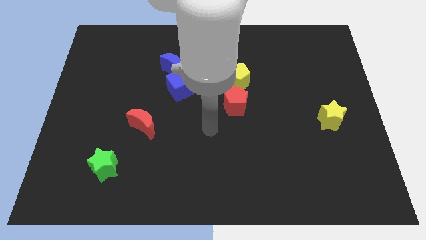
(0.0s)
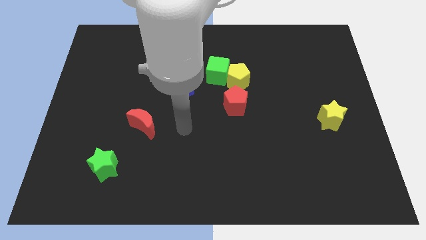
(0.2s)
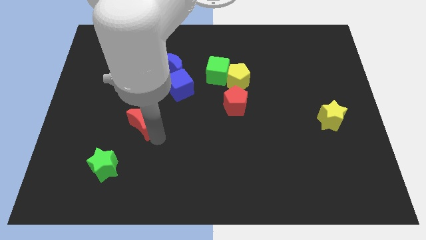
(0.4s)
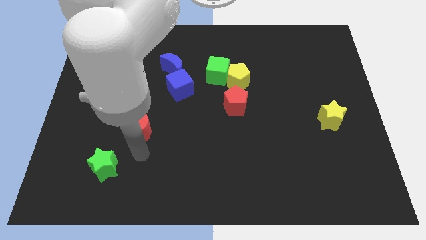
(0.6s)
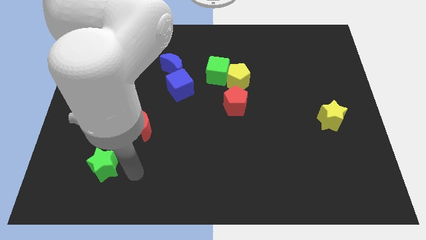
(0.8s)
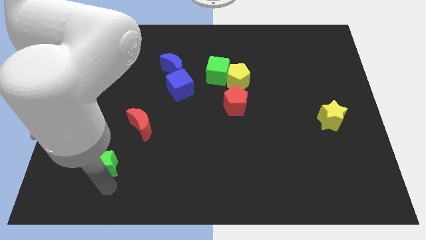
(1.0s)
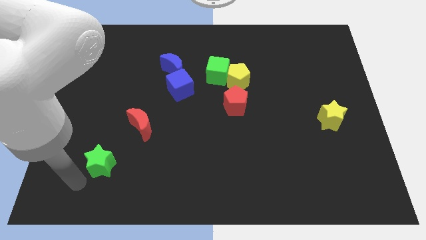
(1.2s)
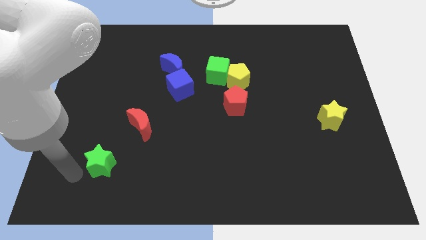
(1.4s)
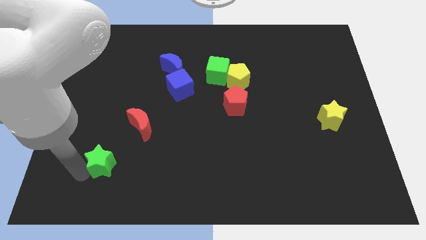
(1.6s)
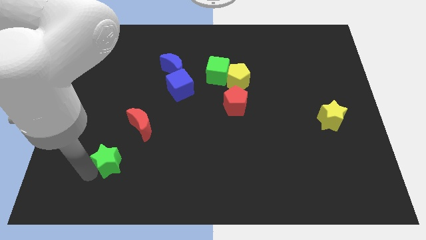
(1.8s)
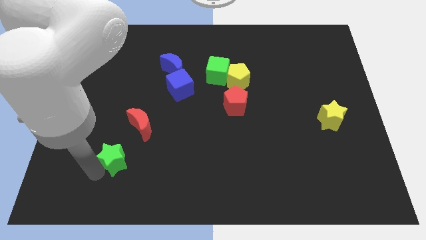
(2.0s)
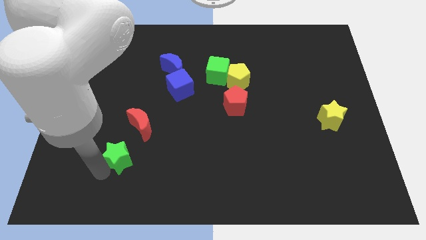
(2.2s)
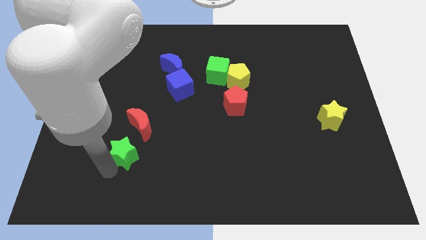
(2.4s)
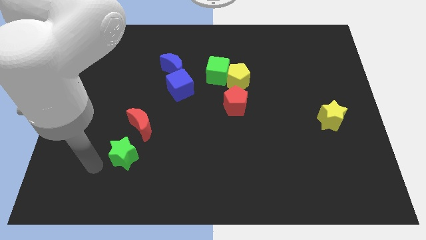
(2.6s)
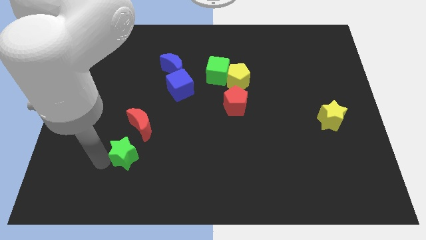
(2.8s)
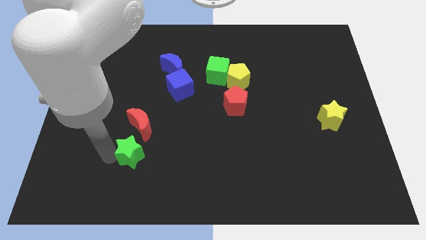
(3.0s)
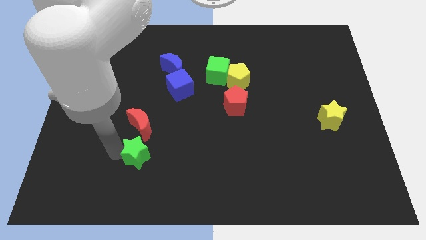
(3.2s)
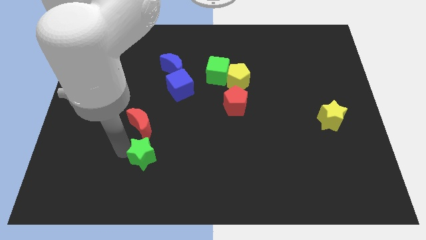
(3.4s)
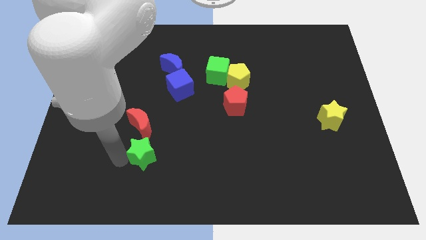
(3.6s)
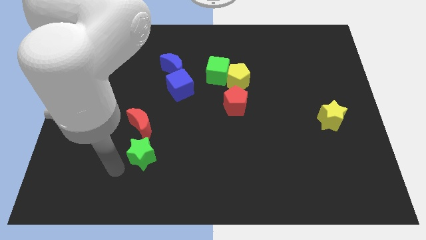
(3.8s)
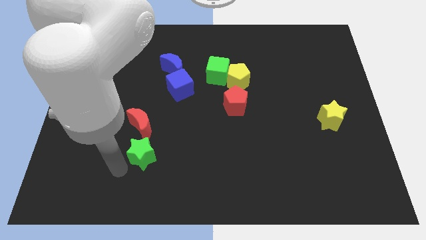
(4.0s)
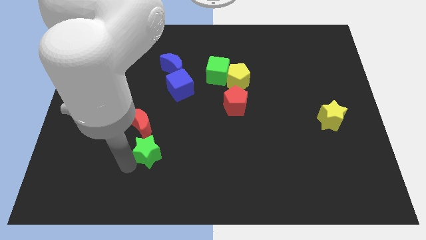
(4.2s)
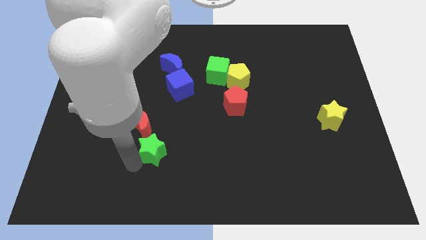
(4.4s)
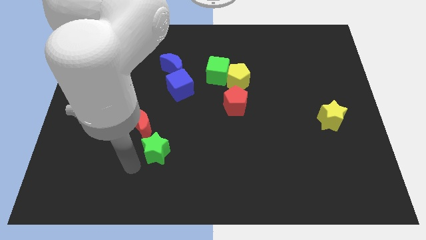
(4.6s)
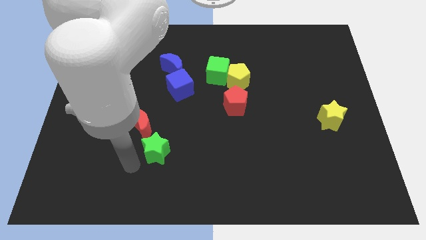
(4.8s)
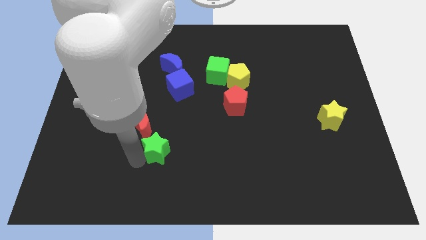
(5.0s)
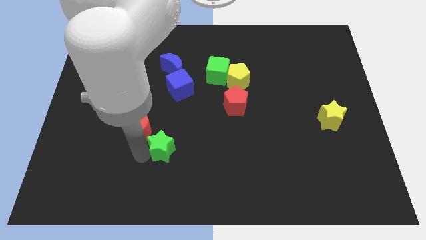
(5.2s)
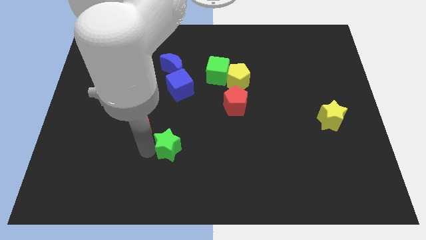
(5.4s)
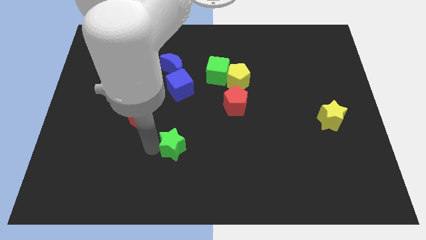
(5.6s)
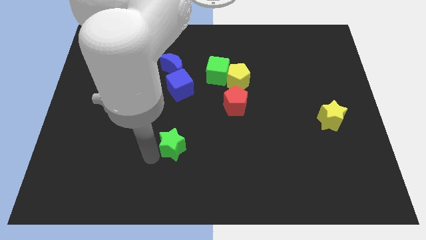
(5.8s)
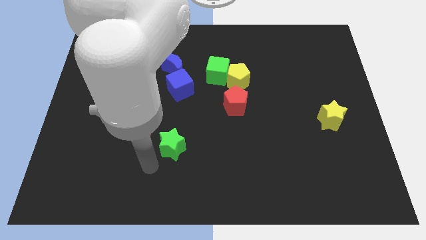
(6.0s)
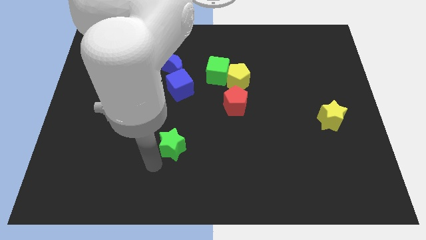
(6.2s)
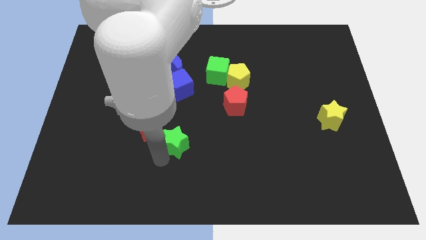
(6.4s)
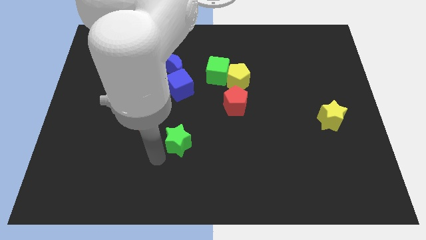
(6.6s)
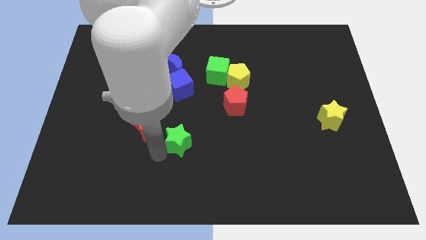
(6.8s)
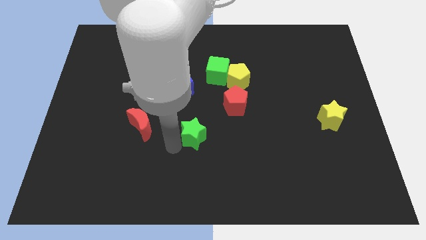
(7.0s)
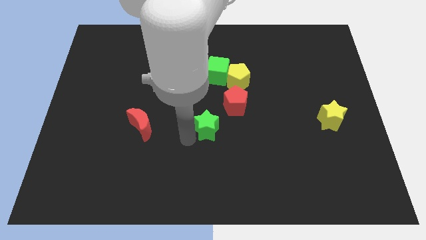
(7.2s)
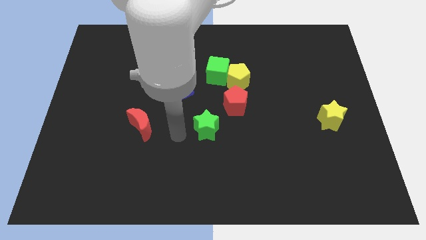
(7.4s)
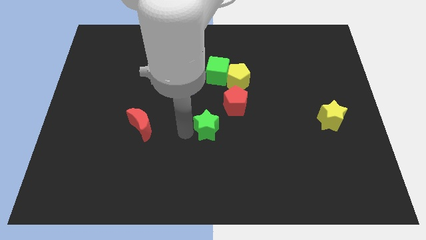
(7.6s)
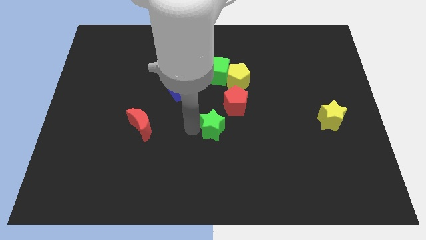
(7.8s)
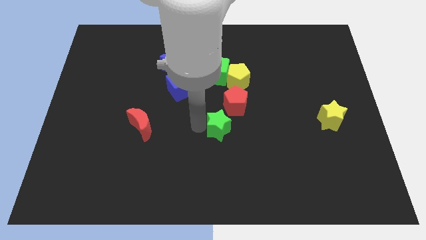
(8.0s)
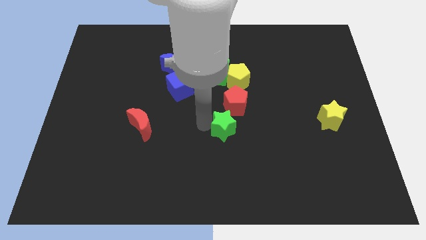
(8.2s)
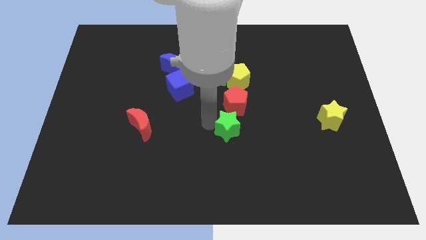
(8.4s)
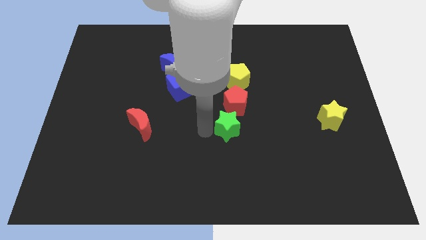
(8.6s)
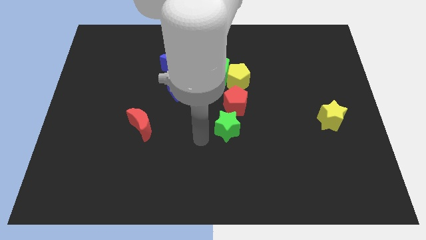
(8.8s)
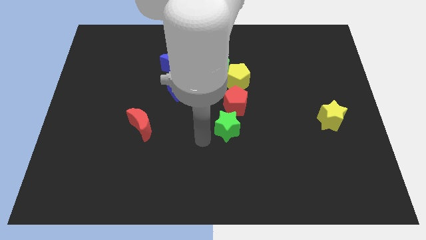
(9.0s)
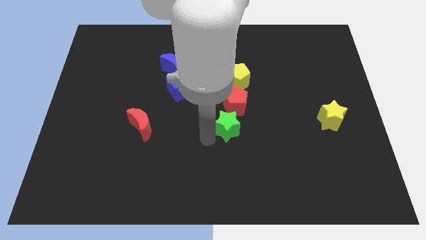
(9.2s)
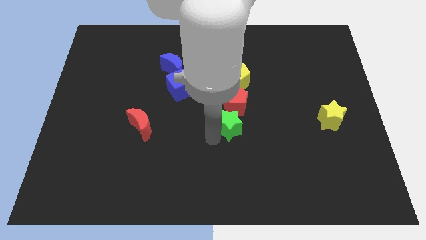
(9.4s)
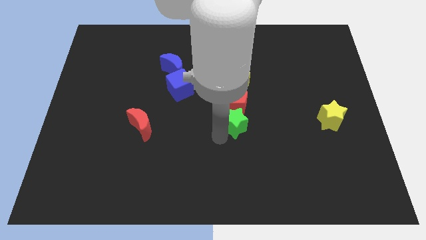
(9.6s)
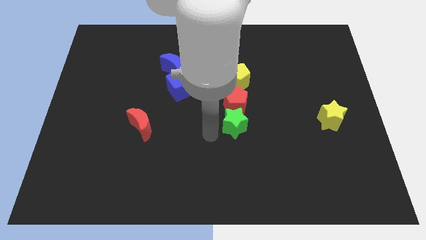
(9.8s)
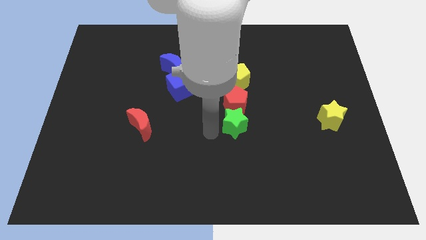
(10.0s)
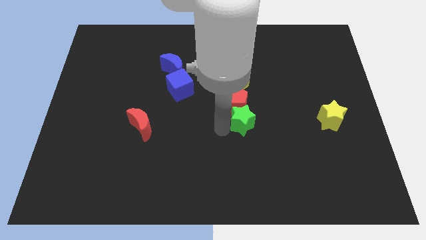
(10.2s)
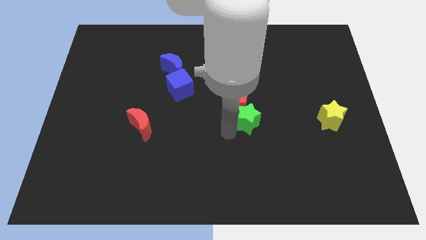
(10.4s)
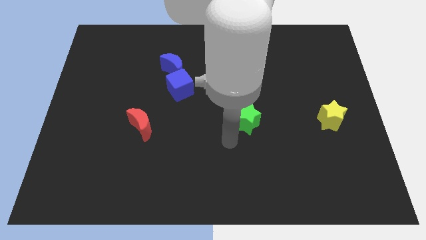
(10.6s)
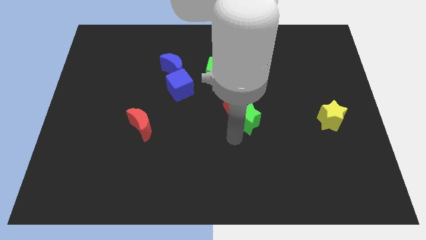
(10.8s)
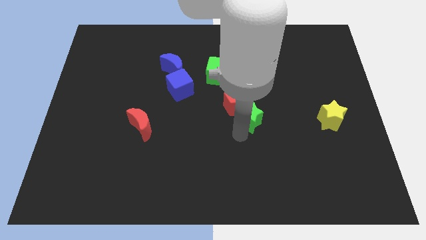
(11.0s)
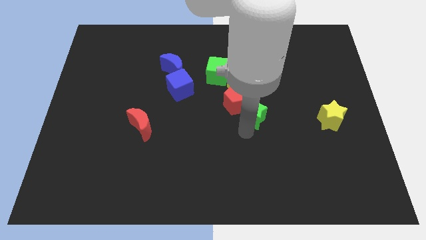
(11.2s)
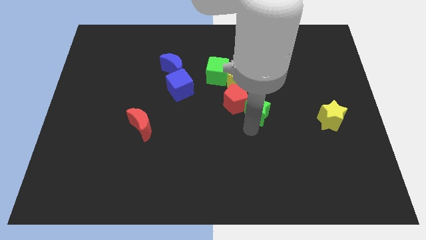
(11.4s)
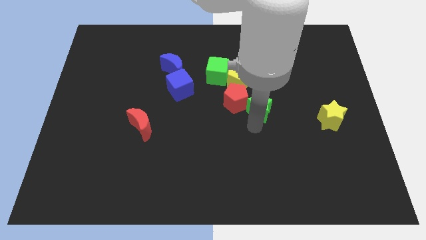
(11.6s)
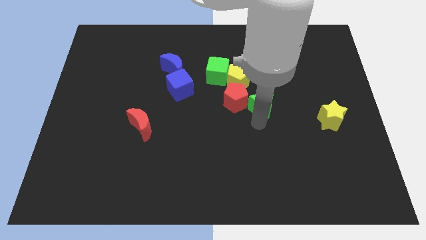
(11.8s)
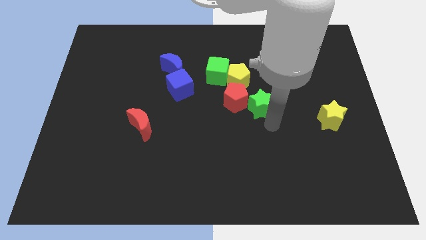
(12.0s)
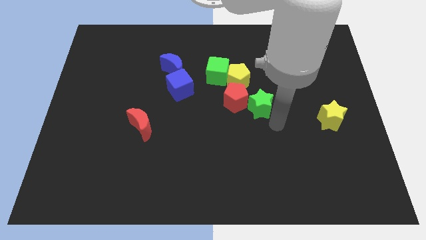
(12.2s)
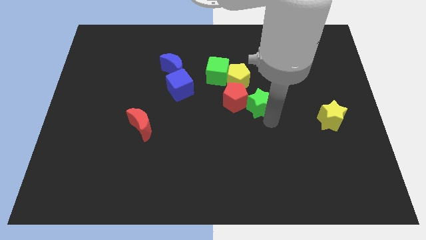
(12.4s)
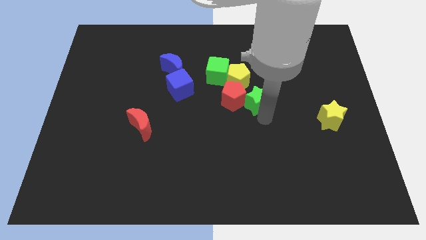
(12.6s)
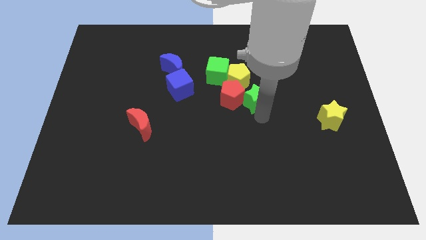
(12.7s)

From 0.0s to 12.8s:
slide the green star diagonally down and to the right of the green cube
